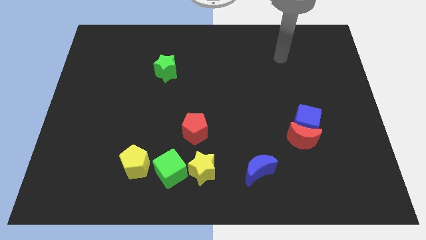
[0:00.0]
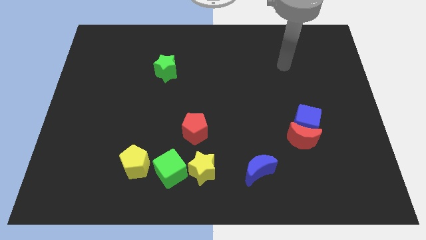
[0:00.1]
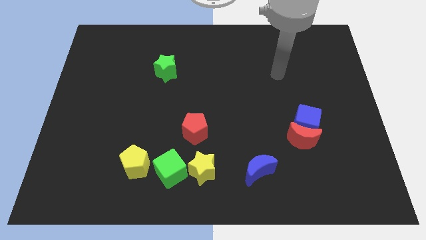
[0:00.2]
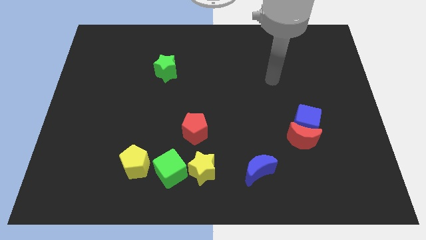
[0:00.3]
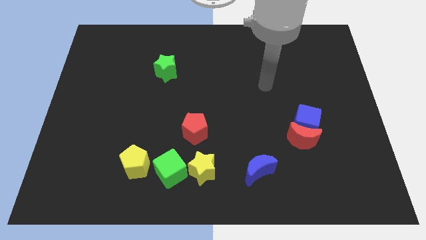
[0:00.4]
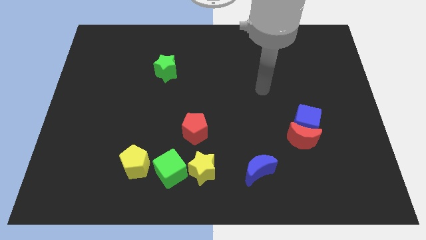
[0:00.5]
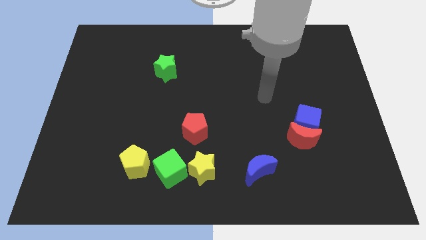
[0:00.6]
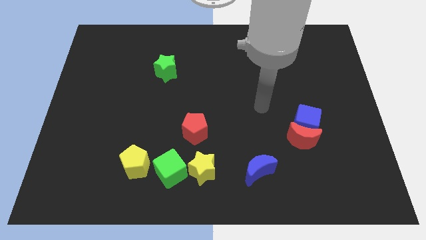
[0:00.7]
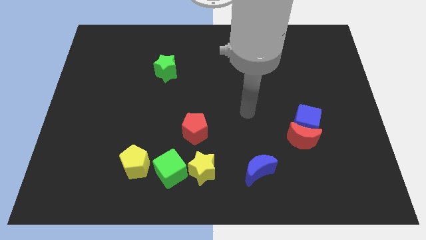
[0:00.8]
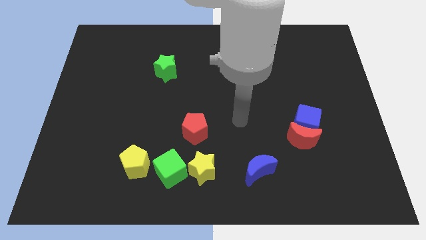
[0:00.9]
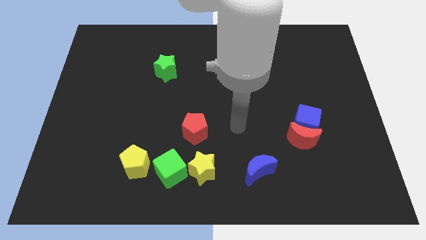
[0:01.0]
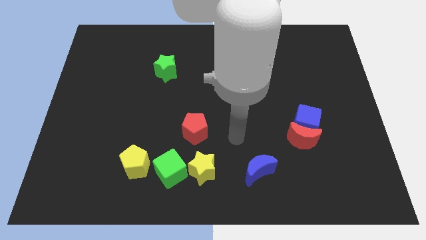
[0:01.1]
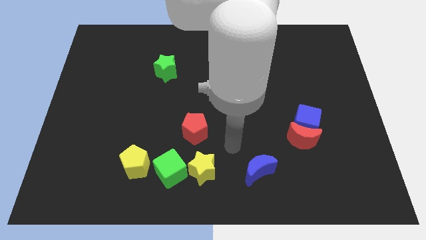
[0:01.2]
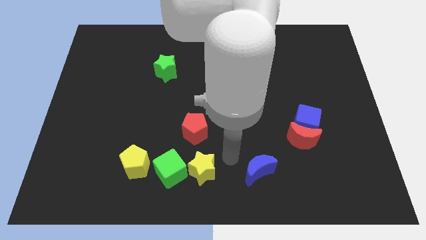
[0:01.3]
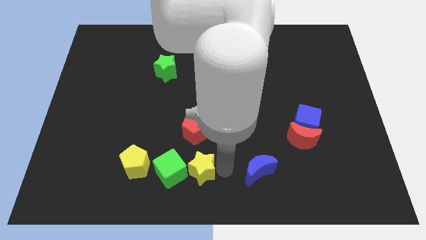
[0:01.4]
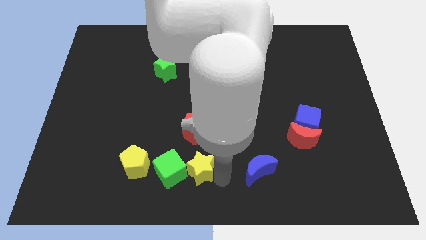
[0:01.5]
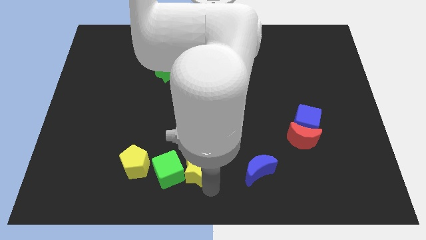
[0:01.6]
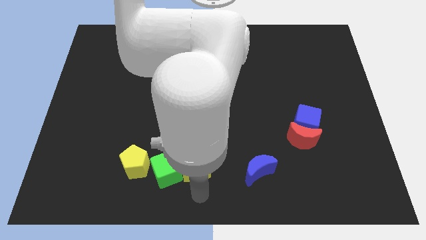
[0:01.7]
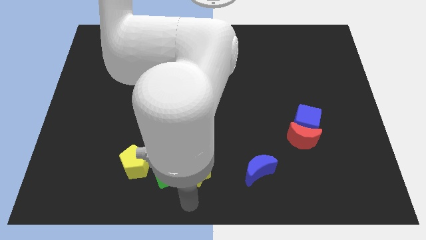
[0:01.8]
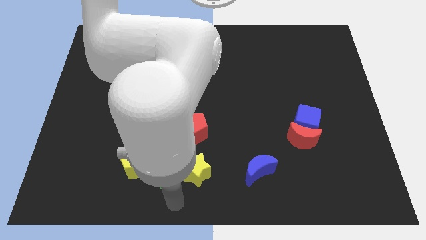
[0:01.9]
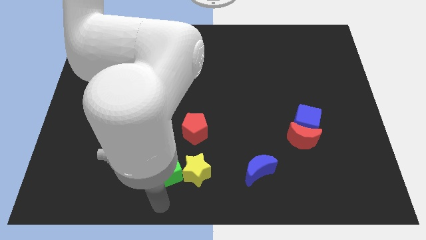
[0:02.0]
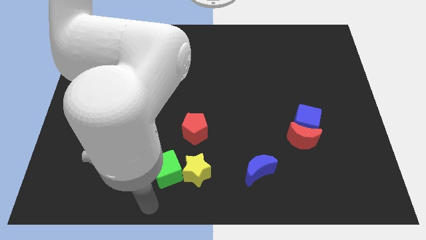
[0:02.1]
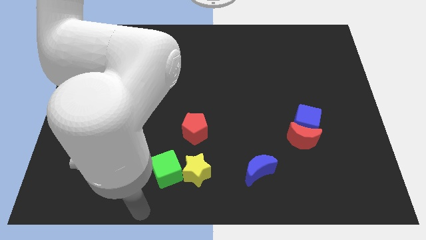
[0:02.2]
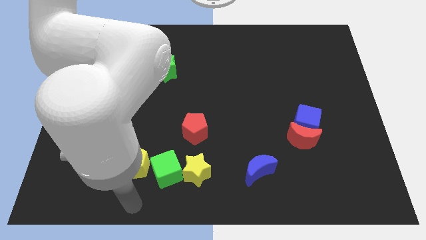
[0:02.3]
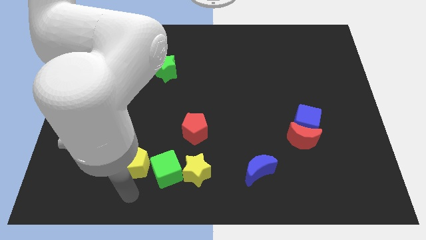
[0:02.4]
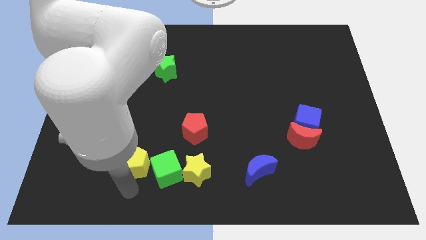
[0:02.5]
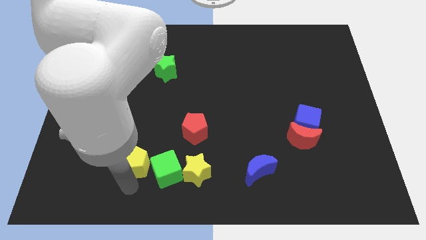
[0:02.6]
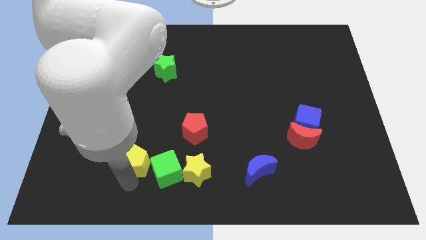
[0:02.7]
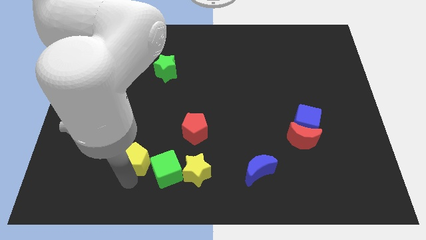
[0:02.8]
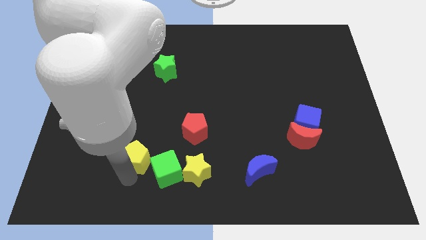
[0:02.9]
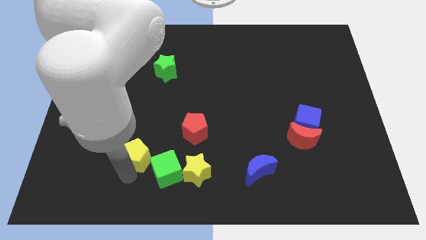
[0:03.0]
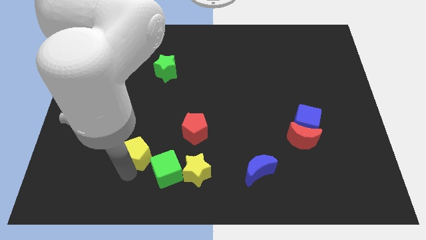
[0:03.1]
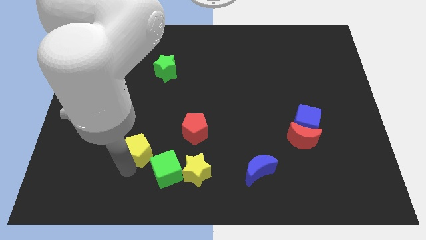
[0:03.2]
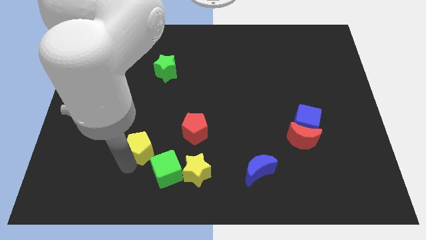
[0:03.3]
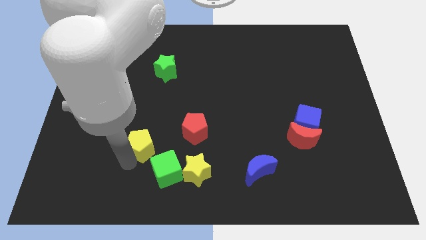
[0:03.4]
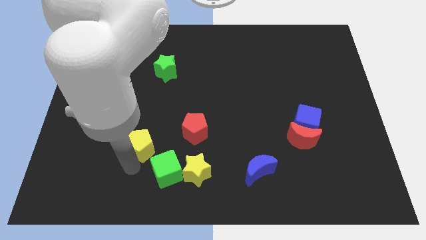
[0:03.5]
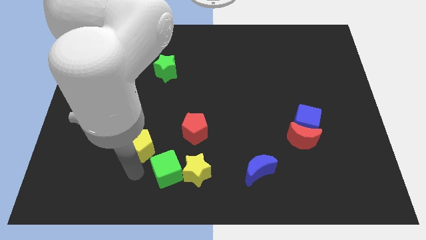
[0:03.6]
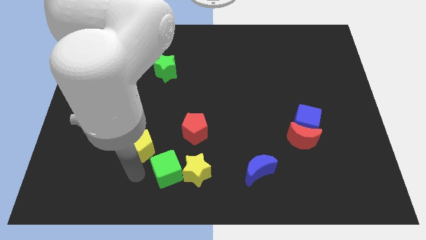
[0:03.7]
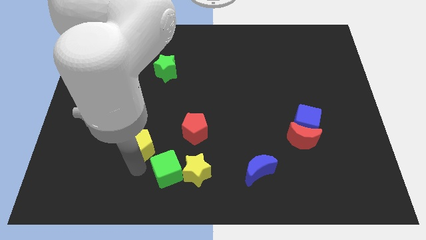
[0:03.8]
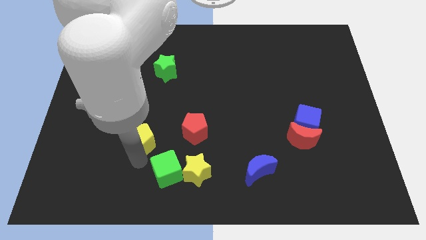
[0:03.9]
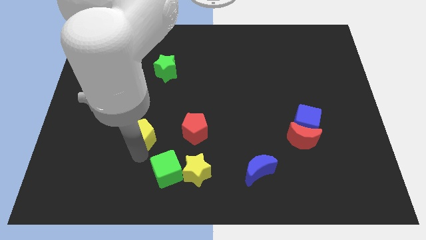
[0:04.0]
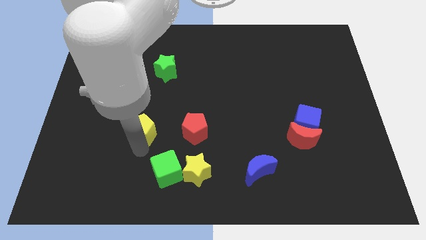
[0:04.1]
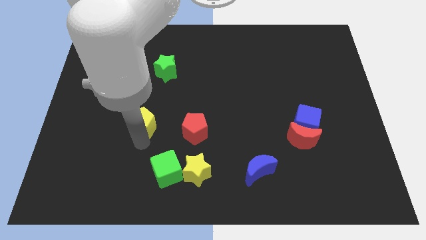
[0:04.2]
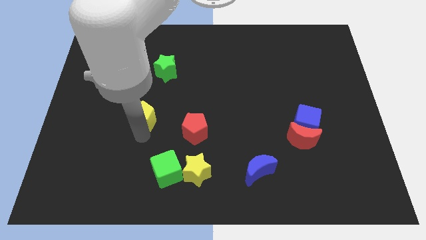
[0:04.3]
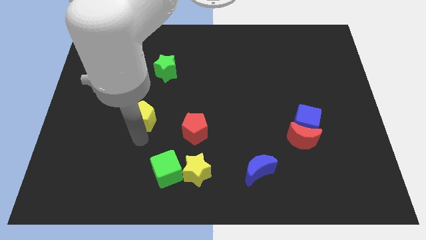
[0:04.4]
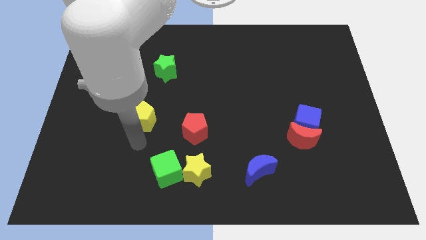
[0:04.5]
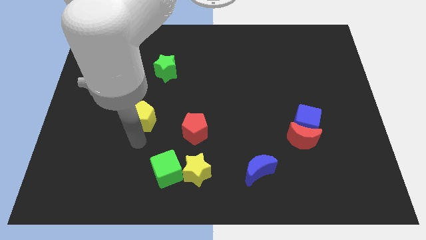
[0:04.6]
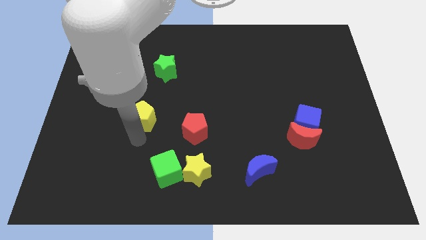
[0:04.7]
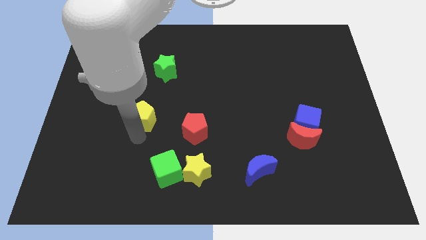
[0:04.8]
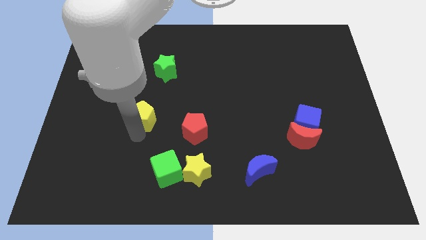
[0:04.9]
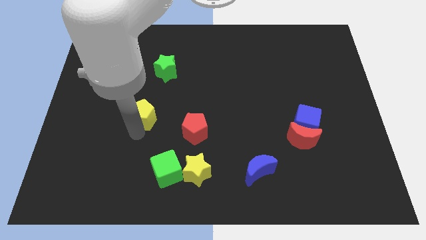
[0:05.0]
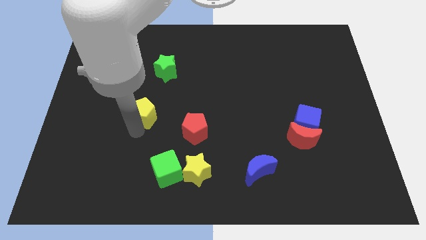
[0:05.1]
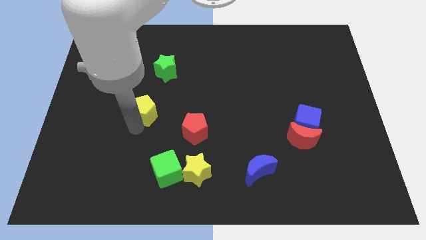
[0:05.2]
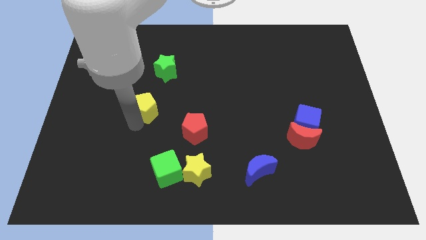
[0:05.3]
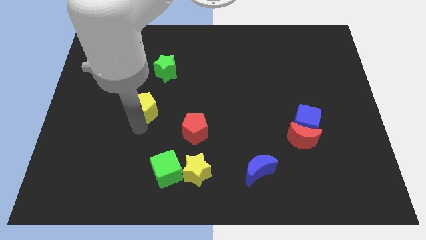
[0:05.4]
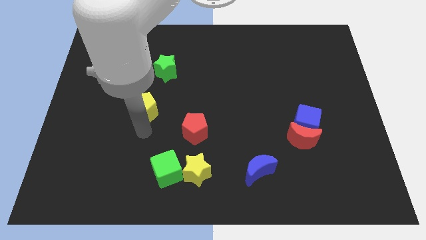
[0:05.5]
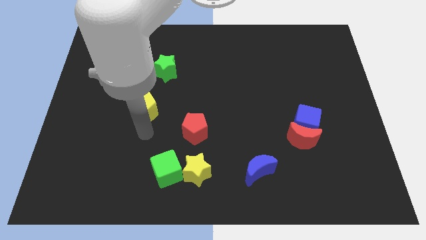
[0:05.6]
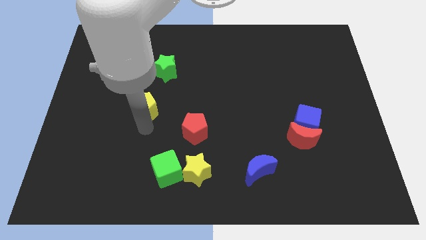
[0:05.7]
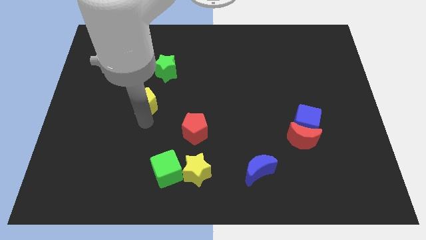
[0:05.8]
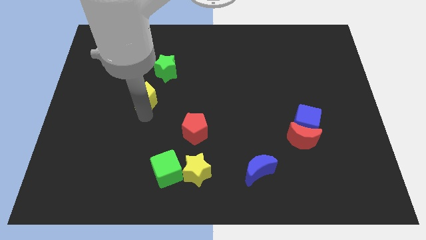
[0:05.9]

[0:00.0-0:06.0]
move the yellow pentagon to the bottom left of the green star
